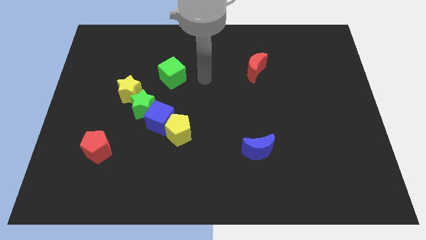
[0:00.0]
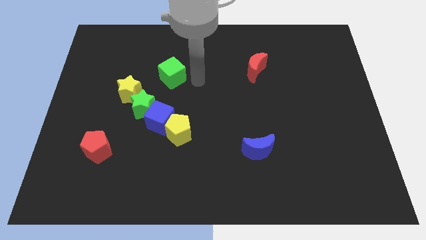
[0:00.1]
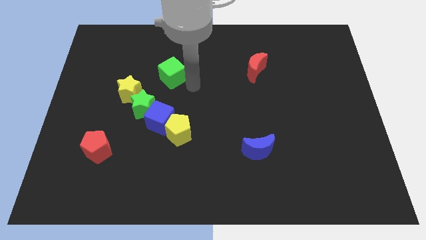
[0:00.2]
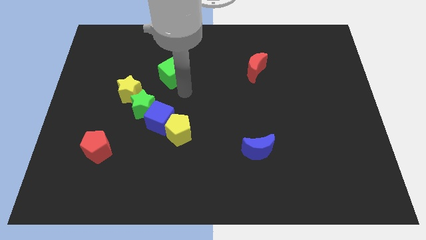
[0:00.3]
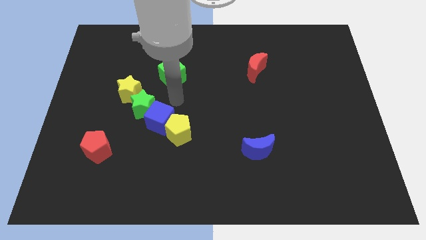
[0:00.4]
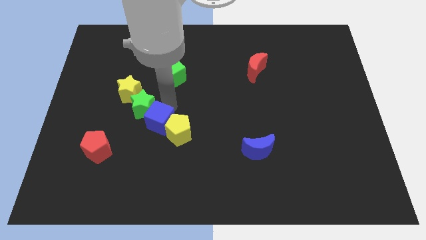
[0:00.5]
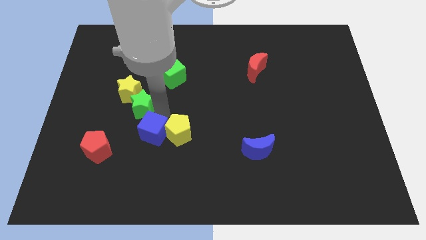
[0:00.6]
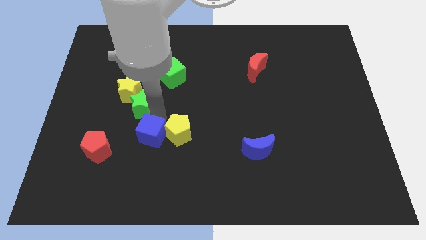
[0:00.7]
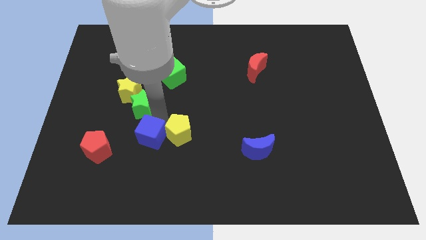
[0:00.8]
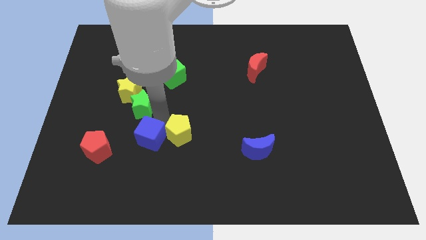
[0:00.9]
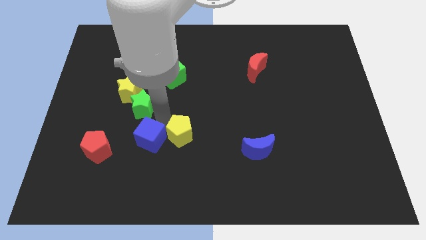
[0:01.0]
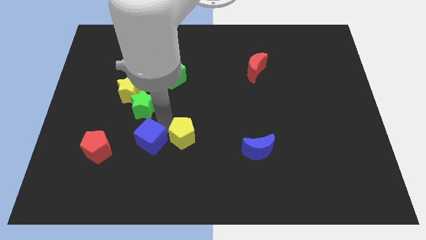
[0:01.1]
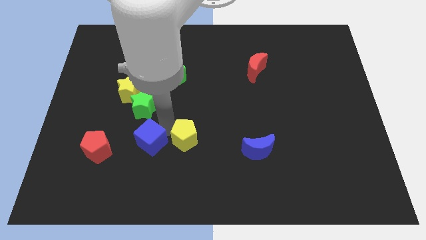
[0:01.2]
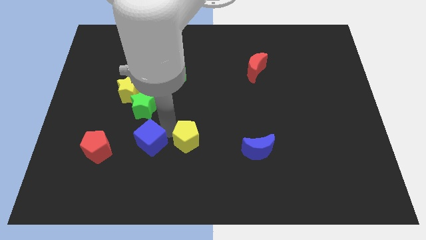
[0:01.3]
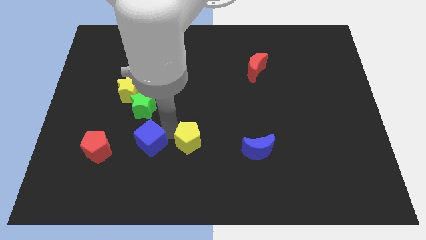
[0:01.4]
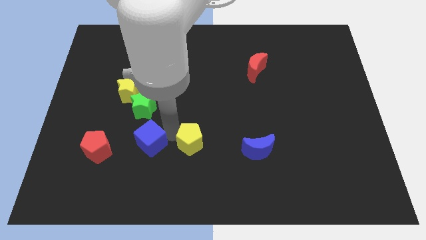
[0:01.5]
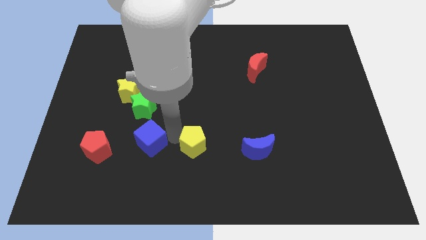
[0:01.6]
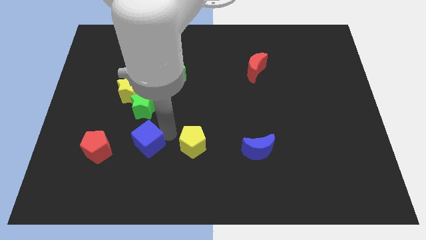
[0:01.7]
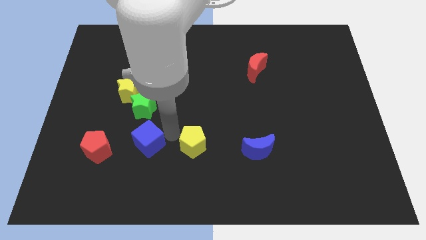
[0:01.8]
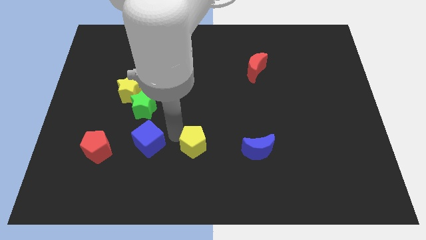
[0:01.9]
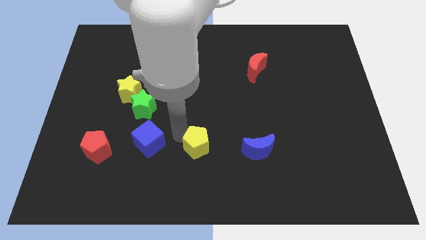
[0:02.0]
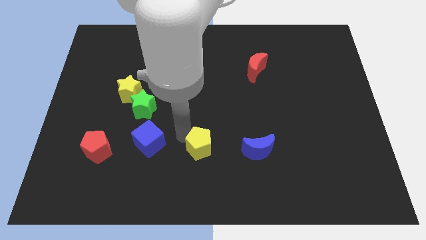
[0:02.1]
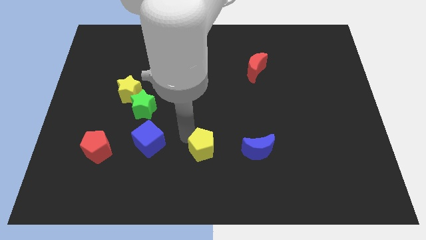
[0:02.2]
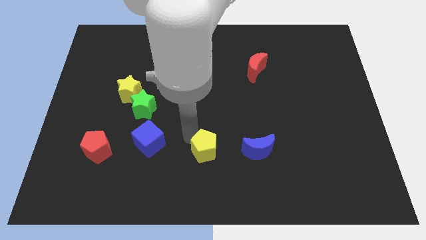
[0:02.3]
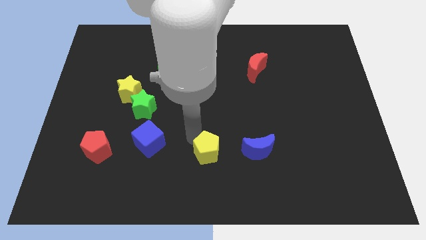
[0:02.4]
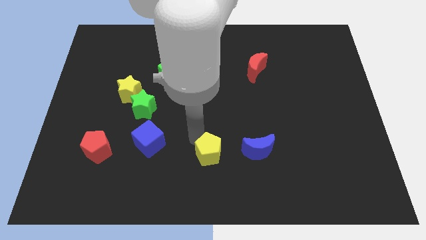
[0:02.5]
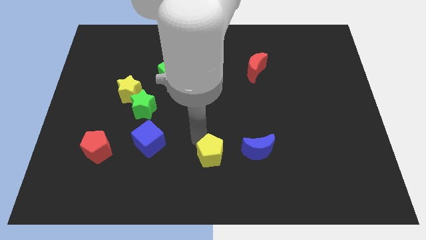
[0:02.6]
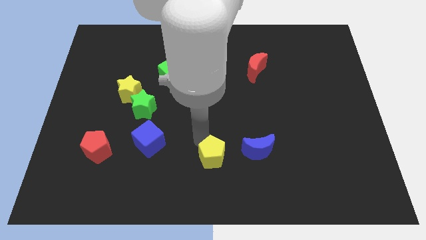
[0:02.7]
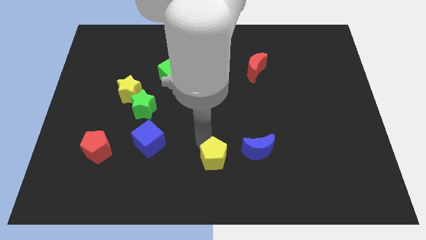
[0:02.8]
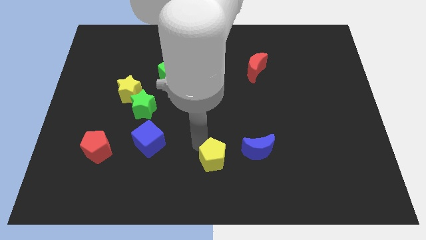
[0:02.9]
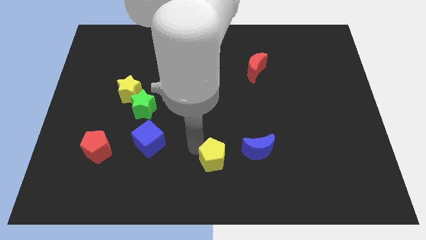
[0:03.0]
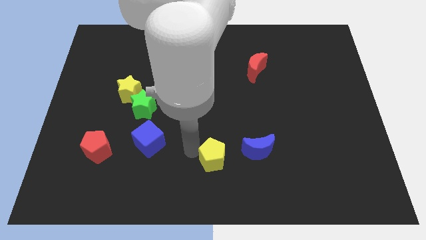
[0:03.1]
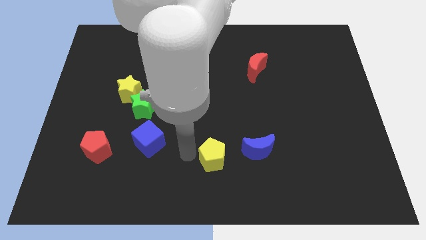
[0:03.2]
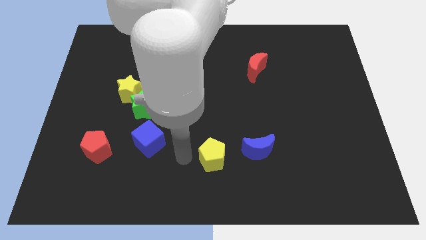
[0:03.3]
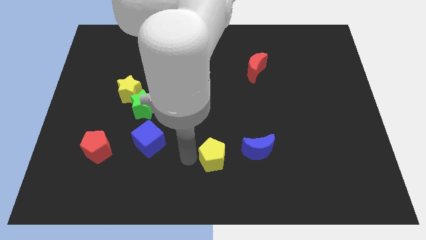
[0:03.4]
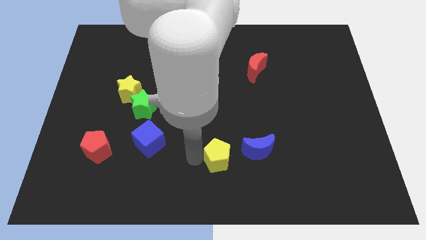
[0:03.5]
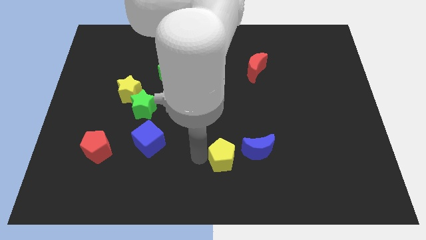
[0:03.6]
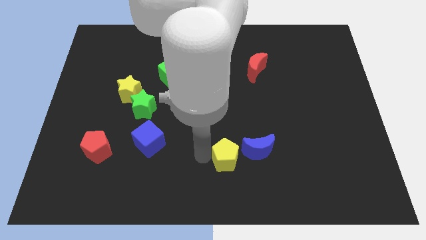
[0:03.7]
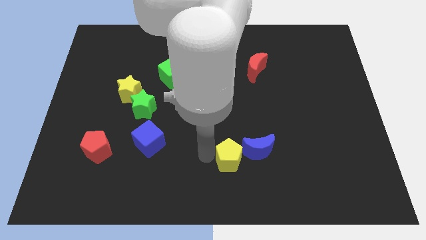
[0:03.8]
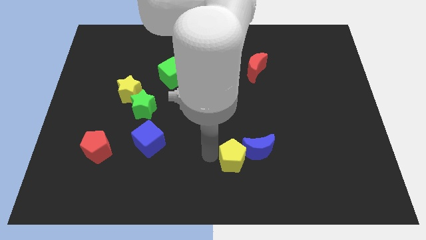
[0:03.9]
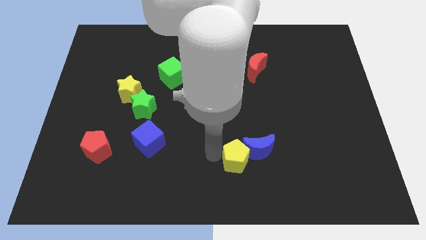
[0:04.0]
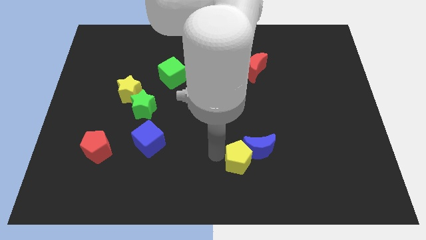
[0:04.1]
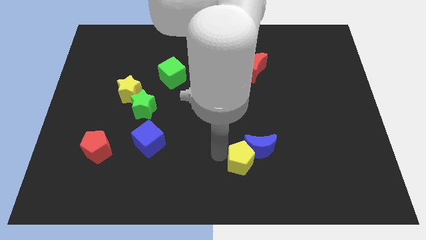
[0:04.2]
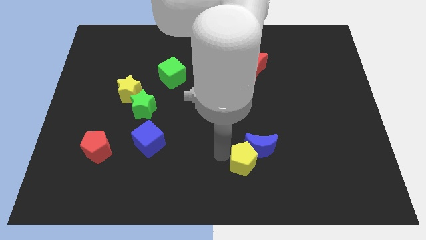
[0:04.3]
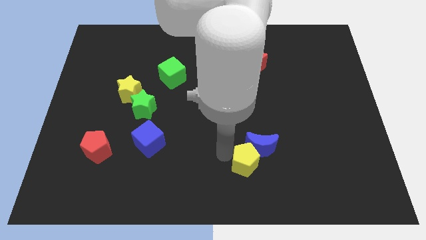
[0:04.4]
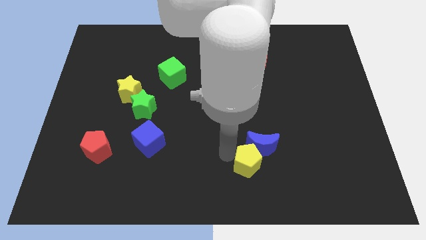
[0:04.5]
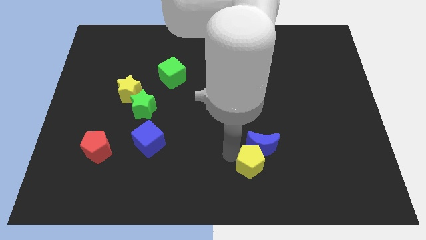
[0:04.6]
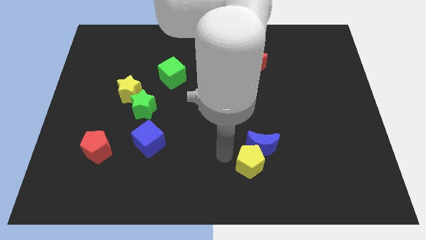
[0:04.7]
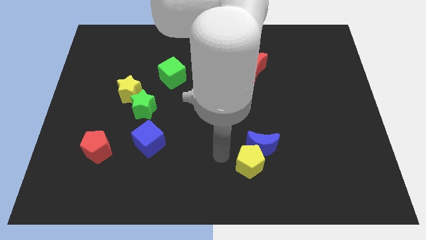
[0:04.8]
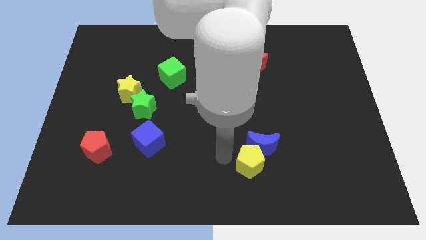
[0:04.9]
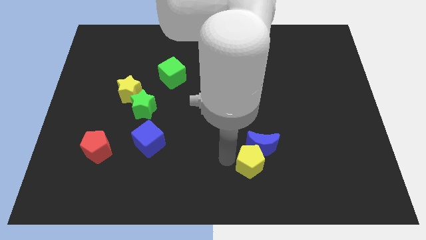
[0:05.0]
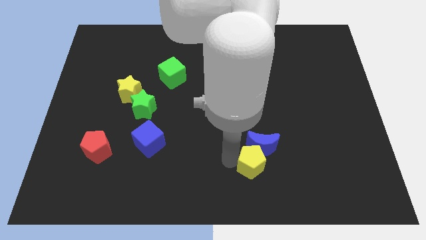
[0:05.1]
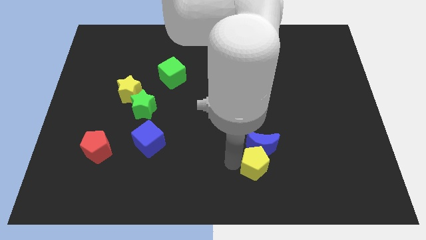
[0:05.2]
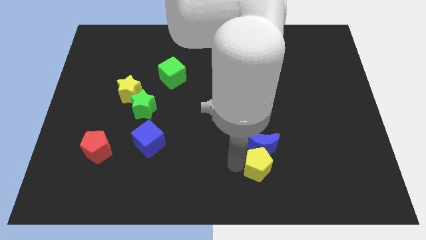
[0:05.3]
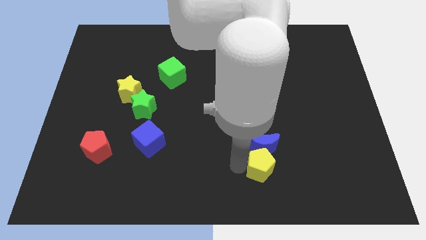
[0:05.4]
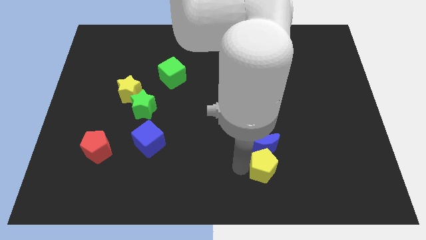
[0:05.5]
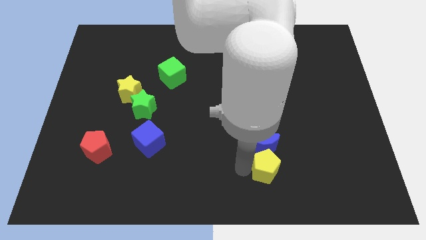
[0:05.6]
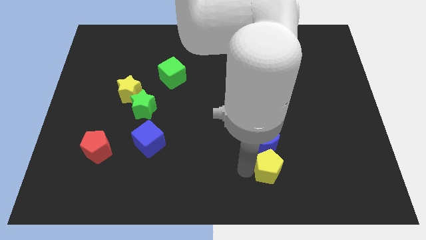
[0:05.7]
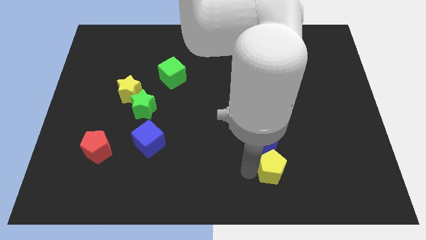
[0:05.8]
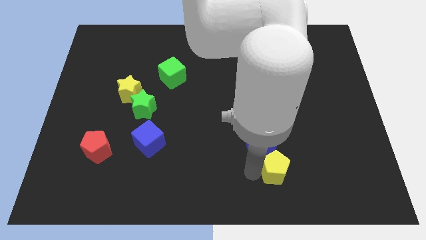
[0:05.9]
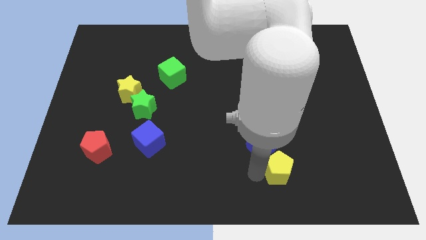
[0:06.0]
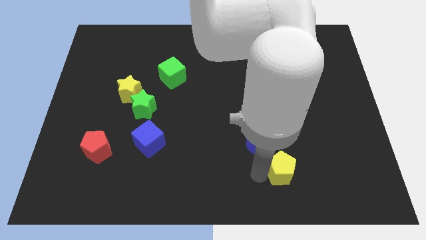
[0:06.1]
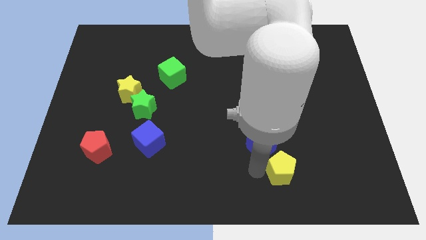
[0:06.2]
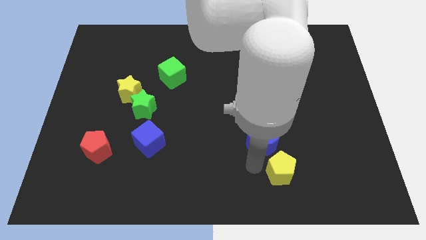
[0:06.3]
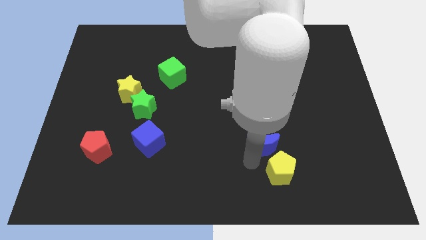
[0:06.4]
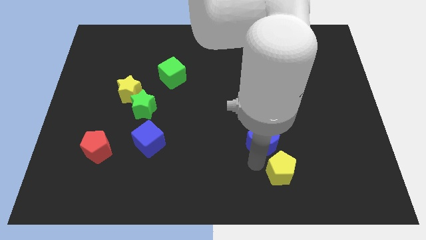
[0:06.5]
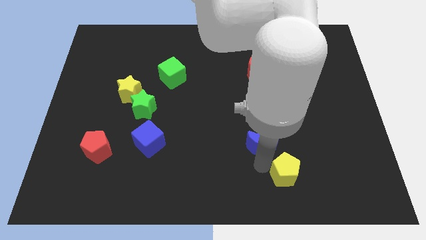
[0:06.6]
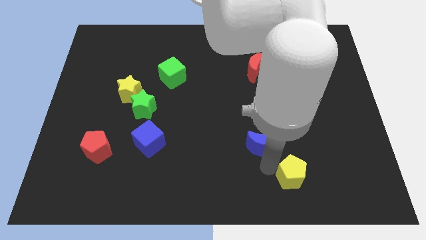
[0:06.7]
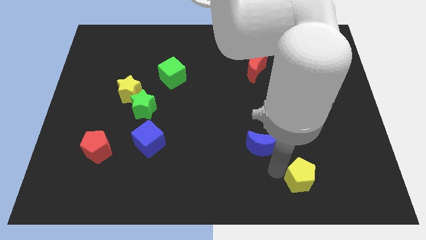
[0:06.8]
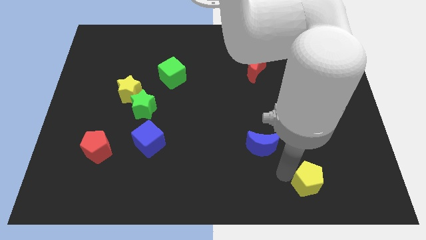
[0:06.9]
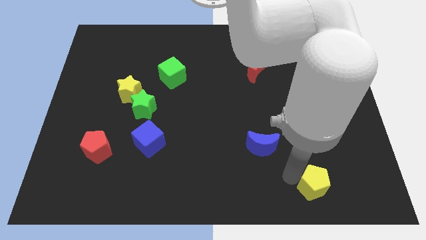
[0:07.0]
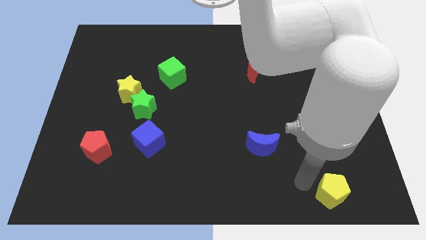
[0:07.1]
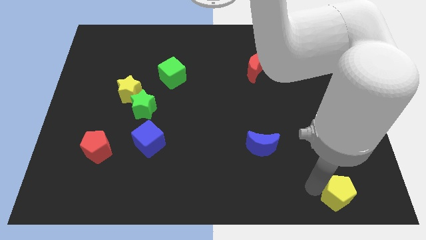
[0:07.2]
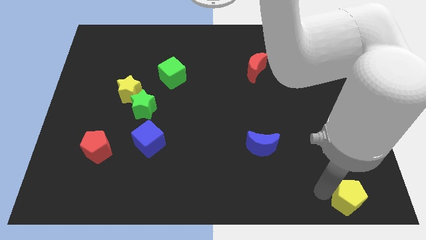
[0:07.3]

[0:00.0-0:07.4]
push the yellow pentagon to the lower right corner
